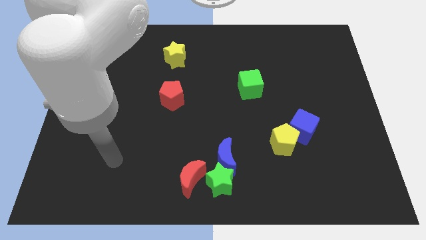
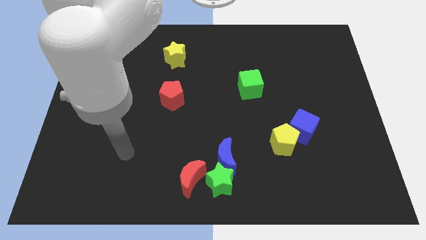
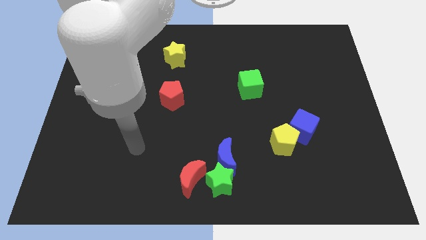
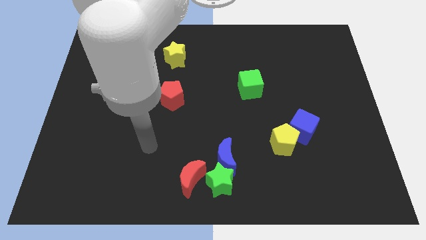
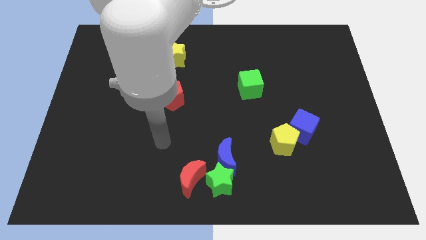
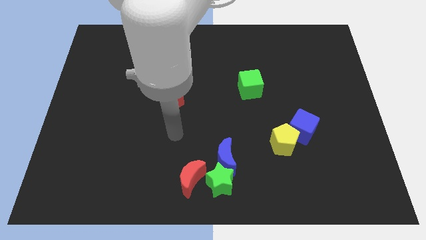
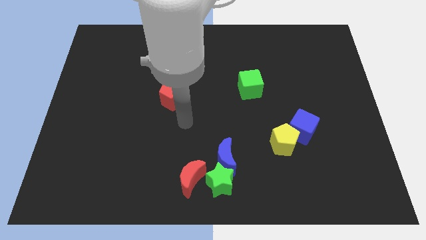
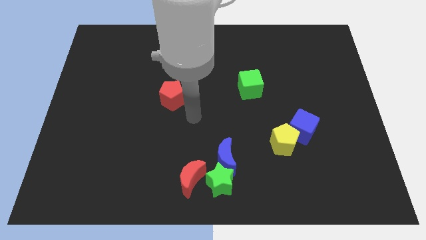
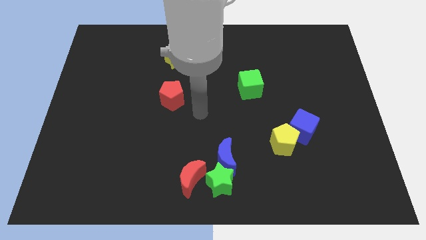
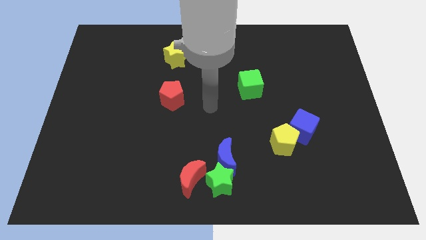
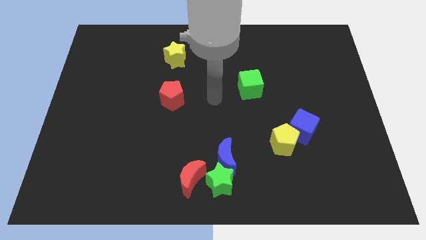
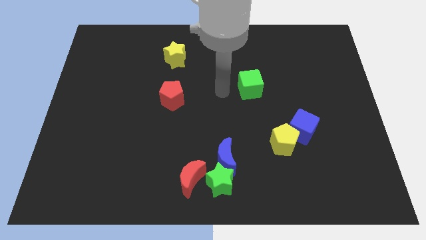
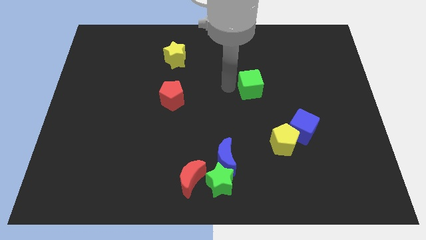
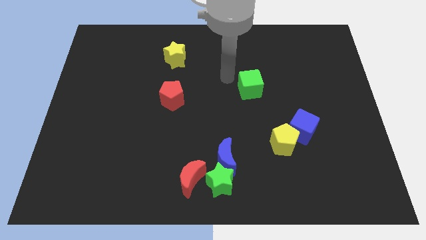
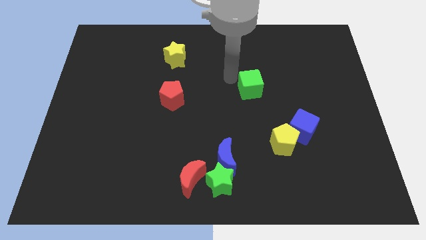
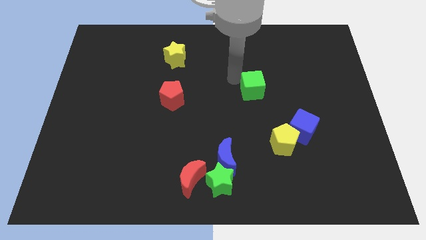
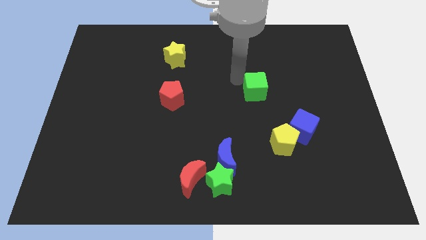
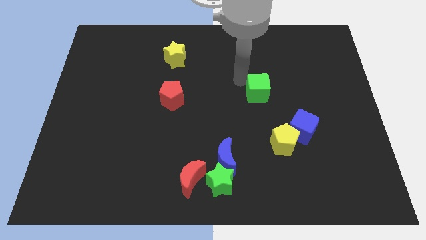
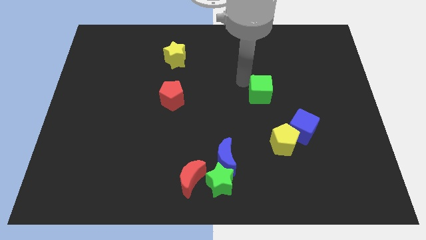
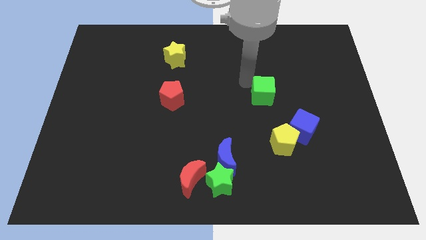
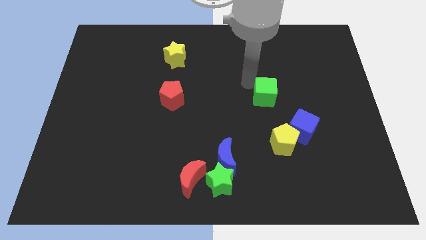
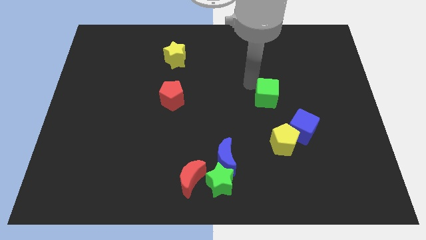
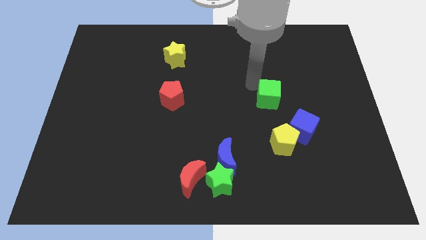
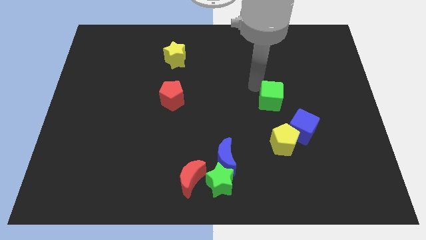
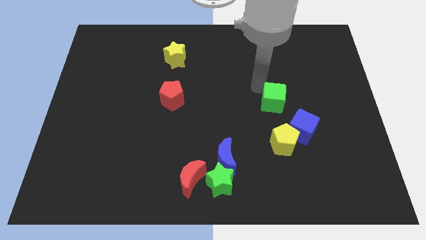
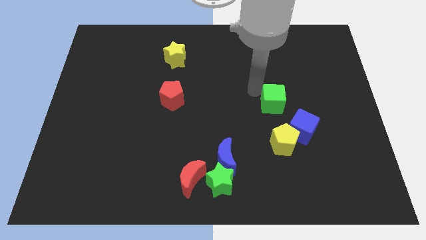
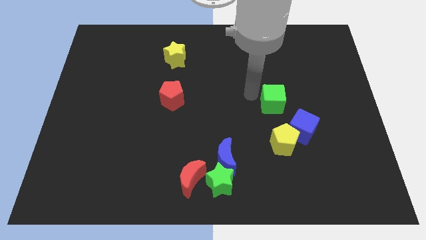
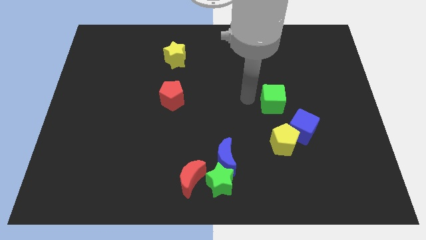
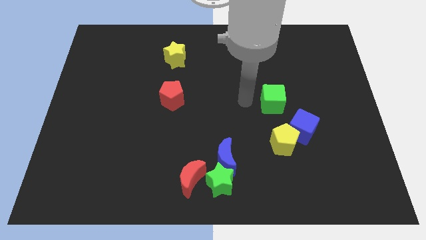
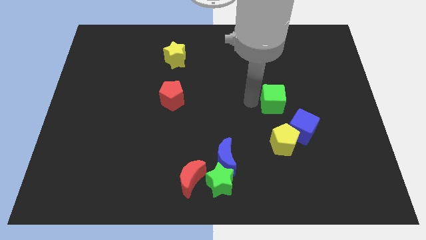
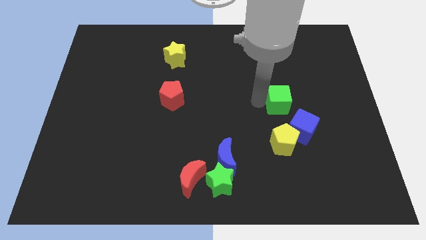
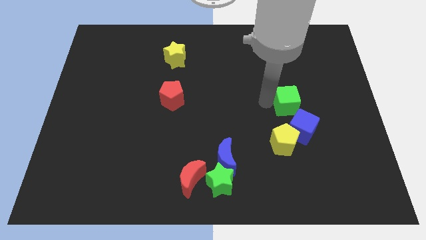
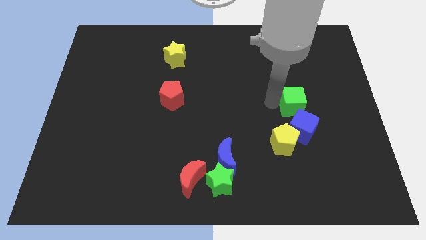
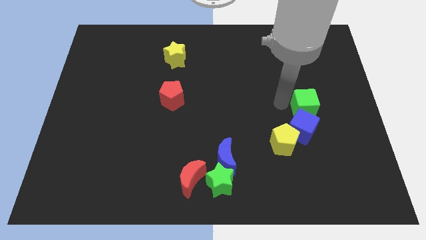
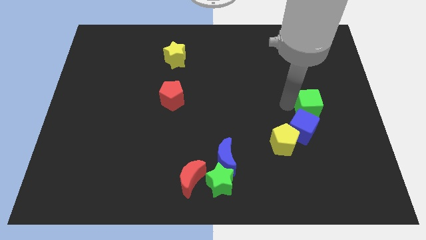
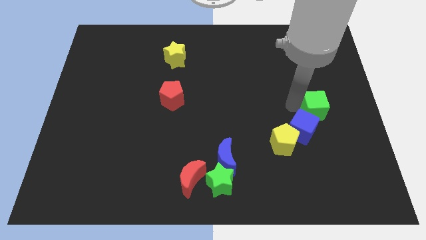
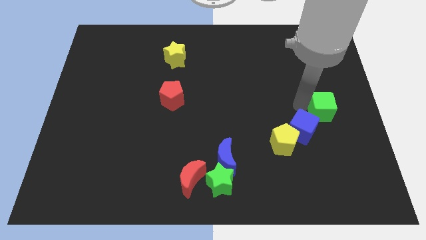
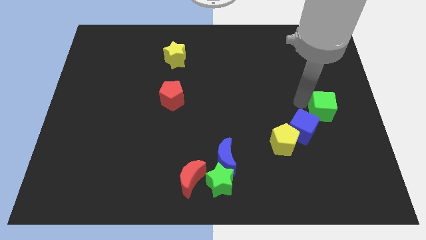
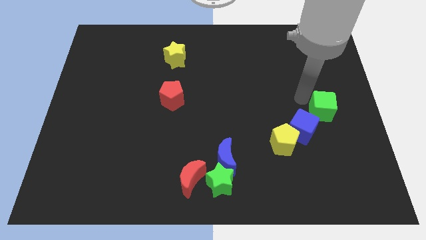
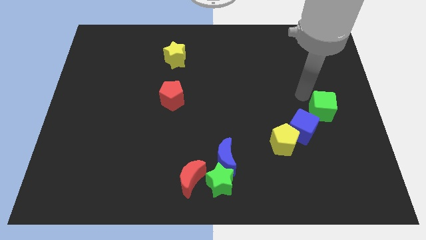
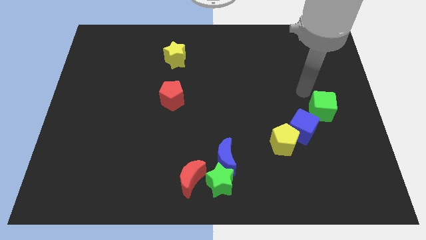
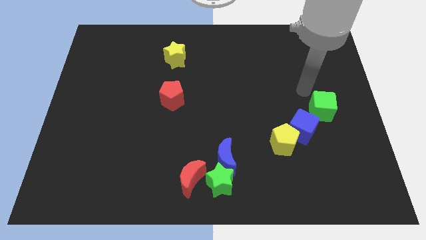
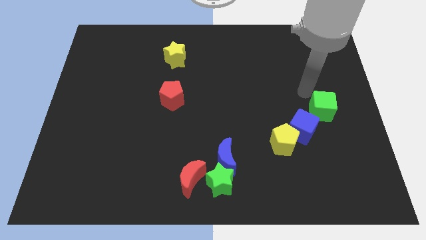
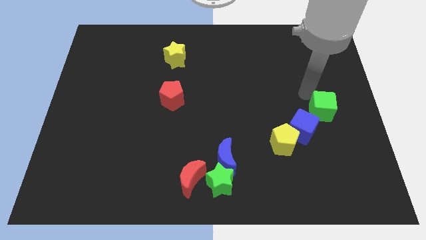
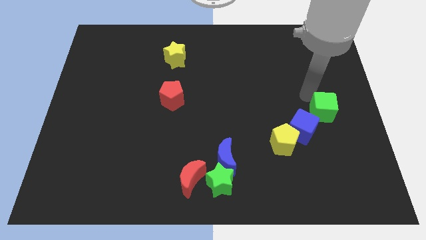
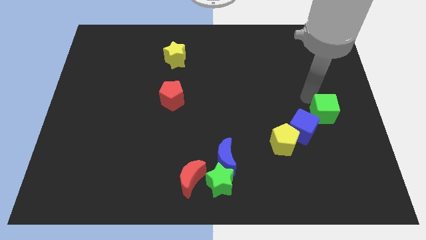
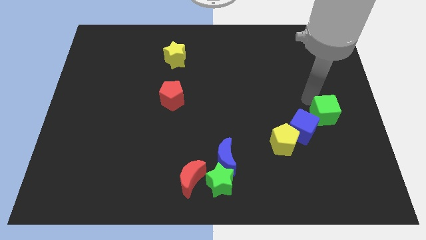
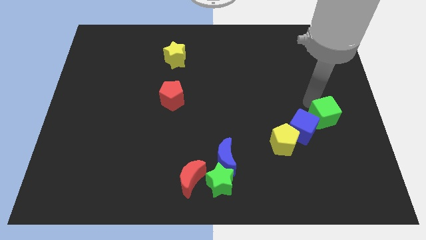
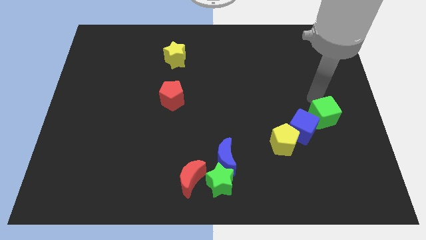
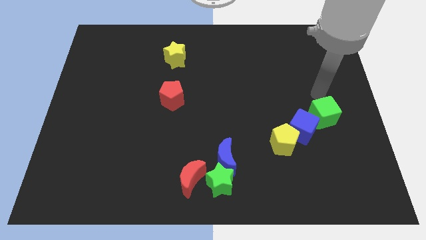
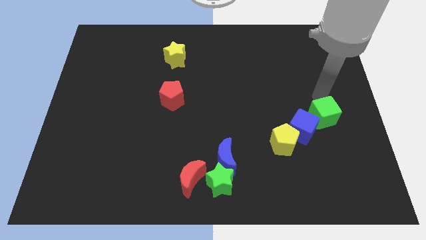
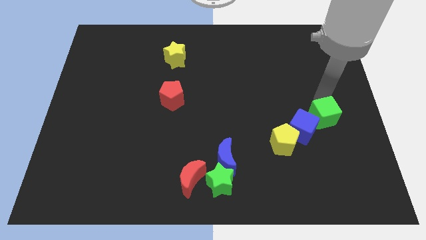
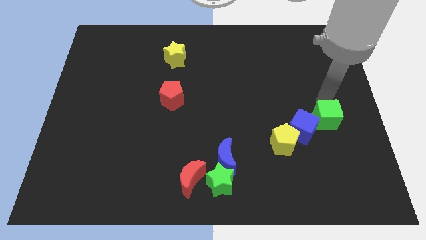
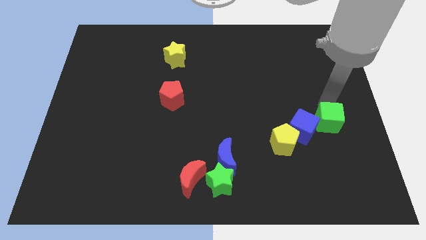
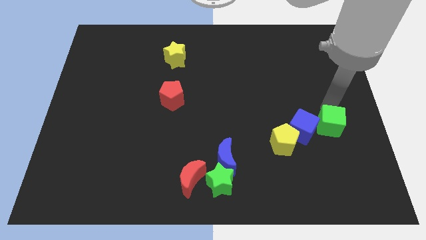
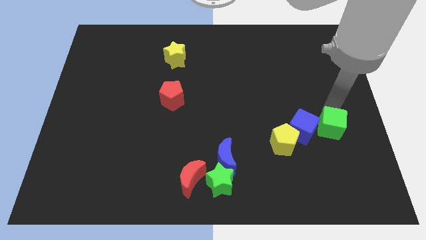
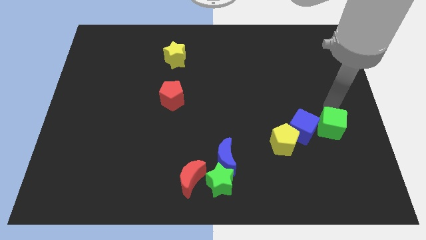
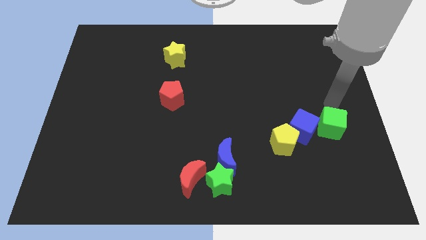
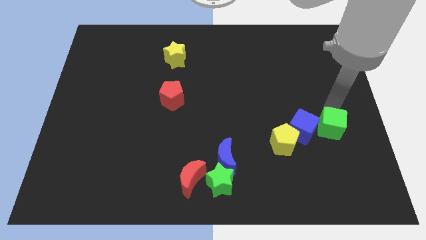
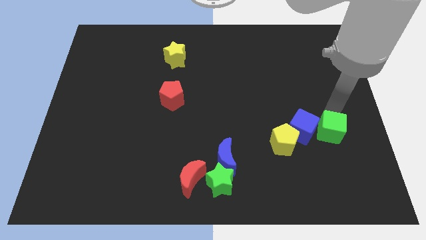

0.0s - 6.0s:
put the green cube to the bottom right side of the blue cube
